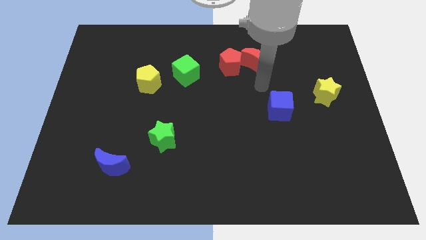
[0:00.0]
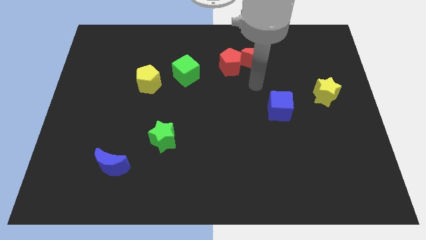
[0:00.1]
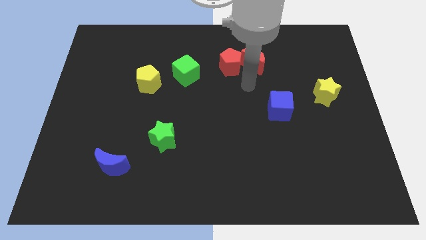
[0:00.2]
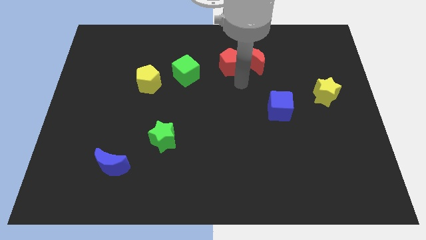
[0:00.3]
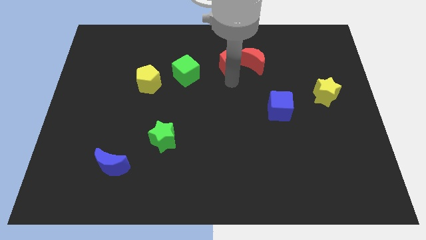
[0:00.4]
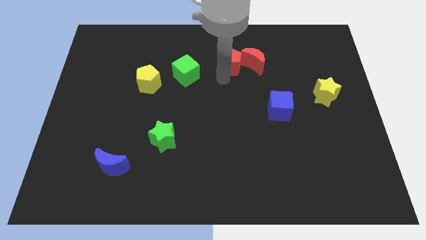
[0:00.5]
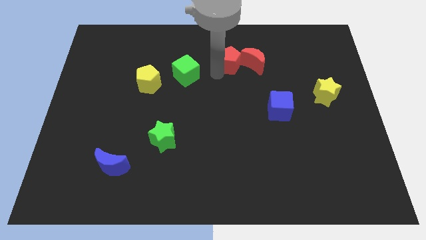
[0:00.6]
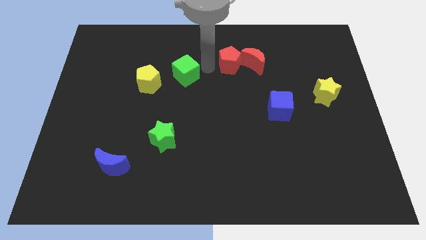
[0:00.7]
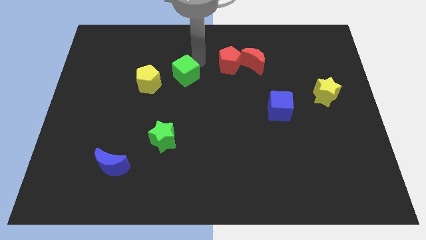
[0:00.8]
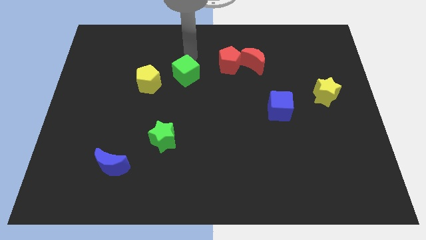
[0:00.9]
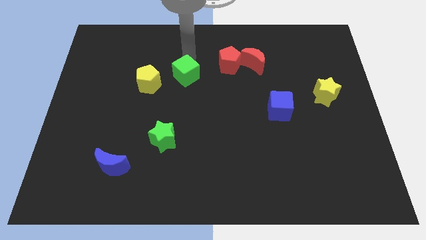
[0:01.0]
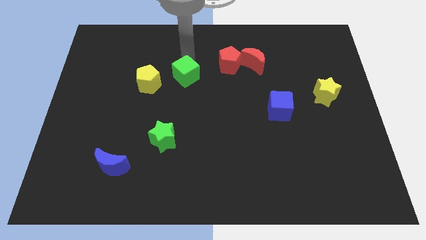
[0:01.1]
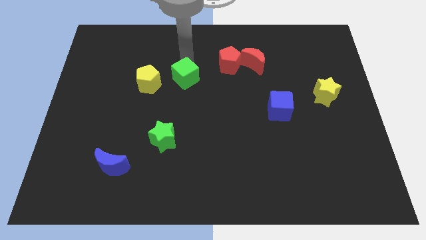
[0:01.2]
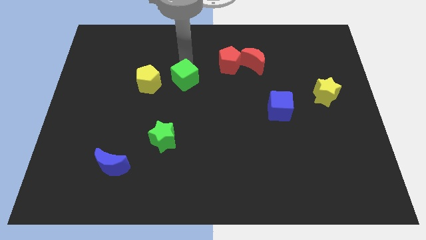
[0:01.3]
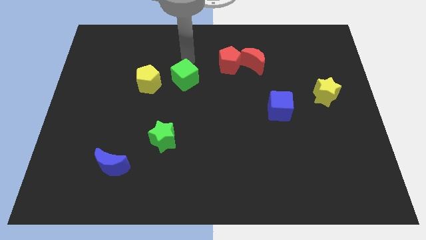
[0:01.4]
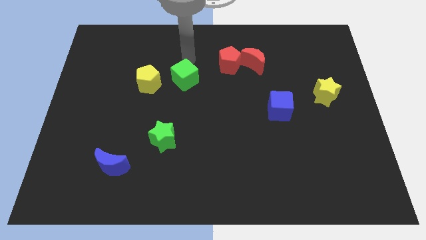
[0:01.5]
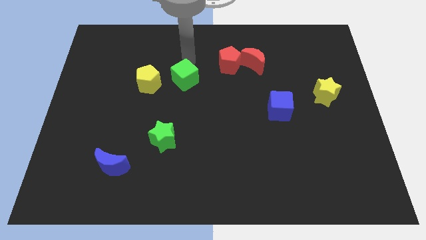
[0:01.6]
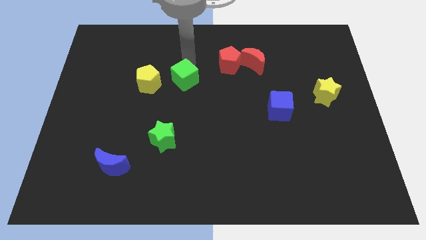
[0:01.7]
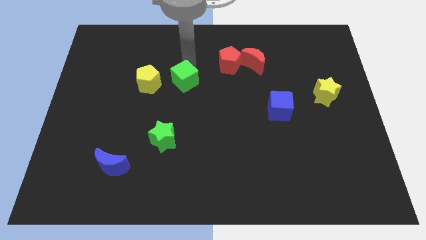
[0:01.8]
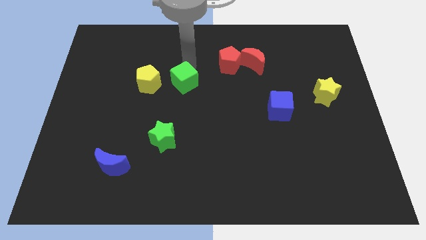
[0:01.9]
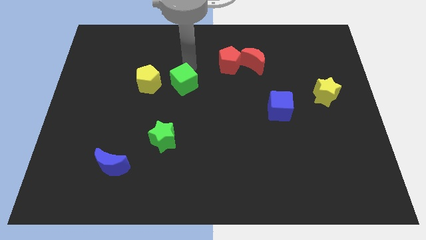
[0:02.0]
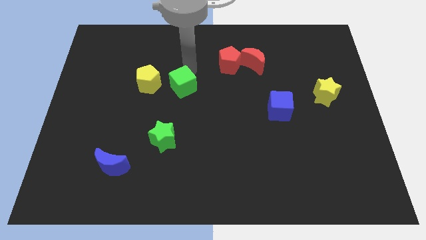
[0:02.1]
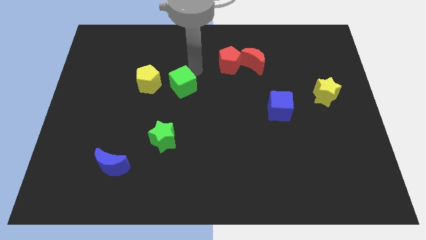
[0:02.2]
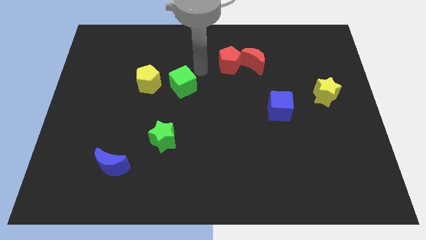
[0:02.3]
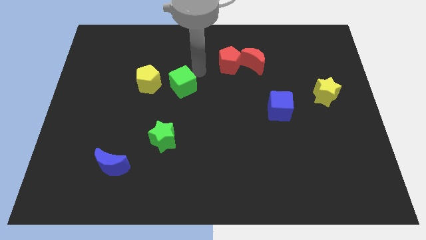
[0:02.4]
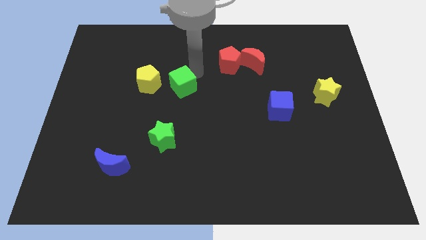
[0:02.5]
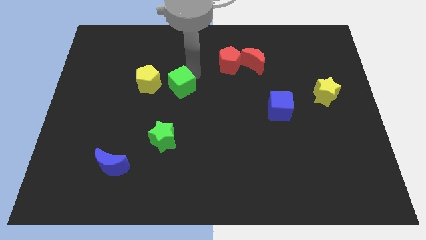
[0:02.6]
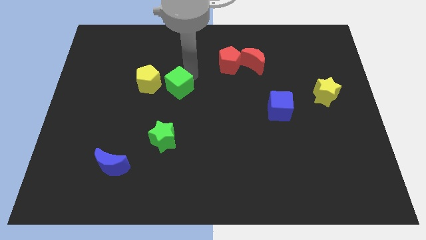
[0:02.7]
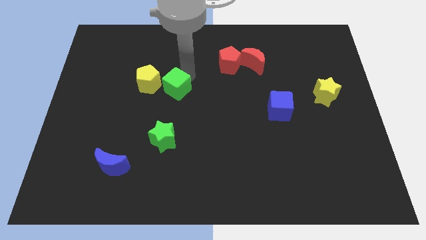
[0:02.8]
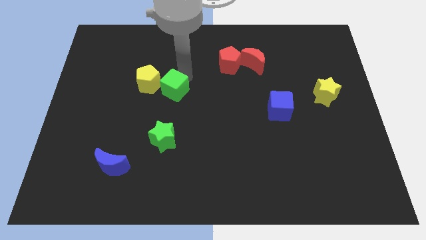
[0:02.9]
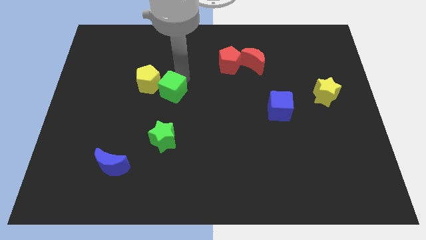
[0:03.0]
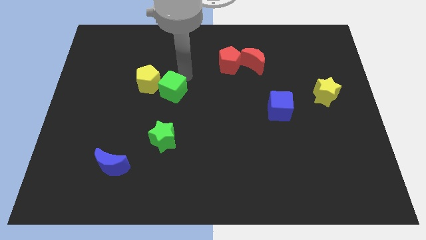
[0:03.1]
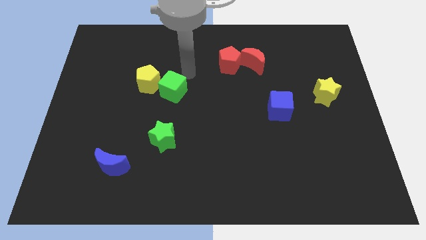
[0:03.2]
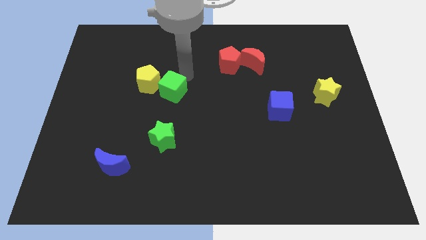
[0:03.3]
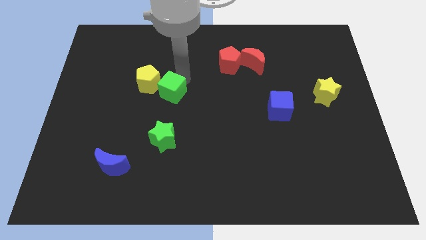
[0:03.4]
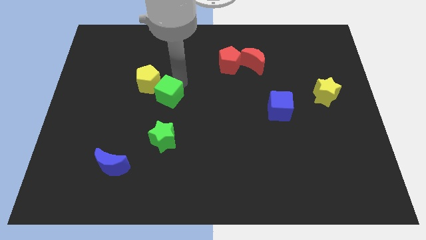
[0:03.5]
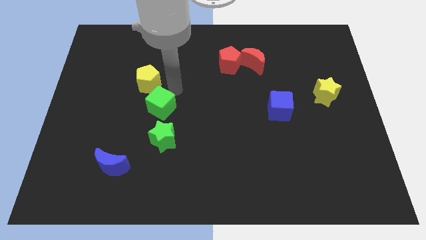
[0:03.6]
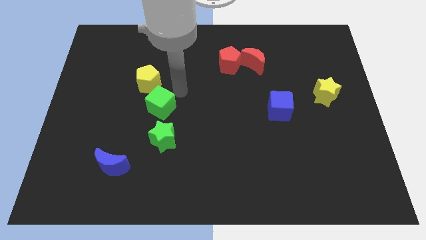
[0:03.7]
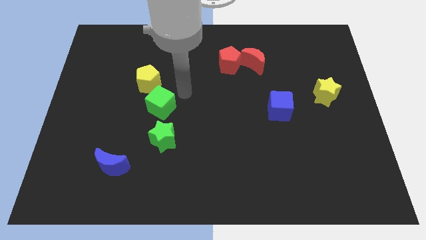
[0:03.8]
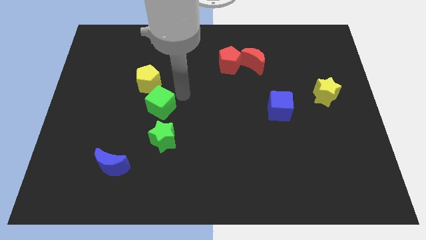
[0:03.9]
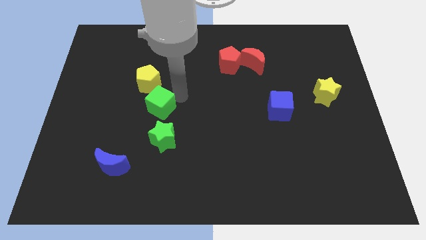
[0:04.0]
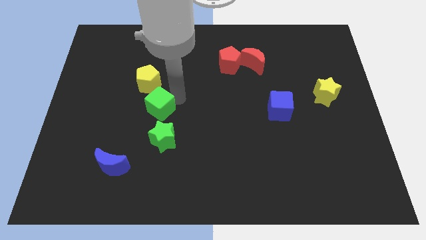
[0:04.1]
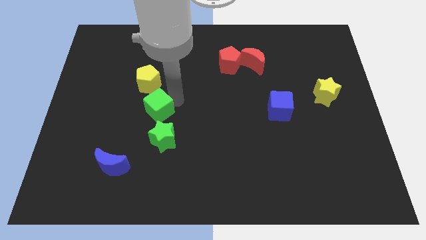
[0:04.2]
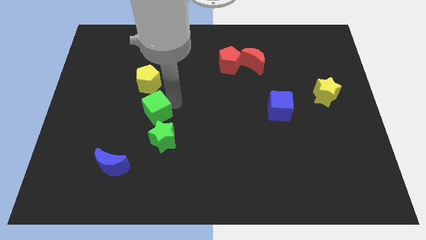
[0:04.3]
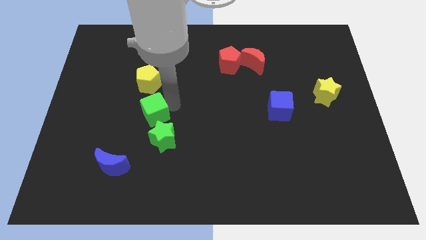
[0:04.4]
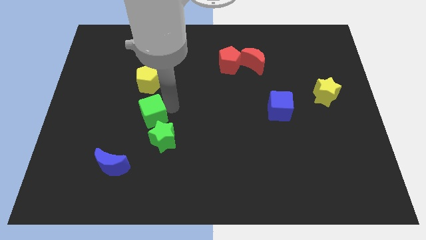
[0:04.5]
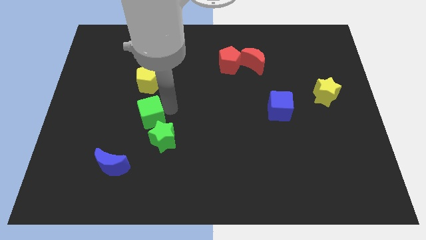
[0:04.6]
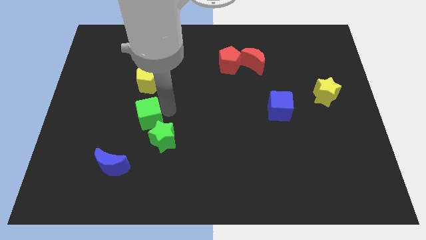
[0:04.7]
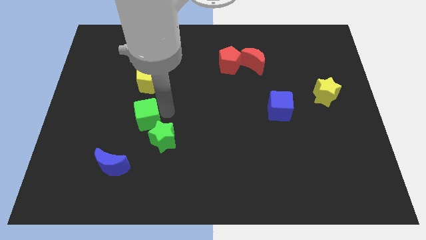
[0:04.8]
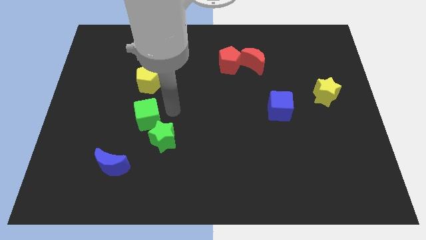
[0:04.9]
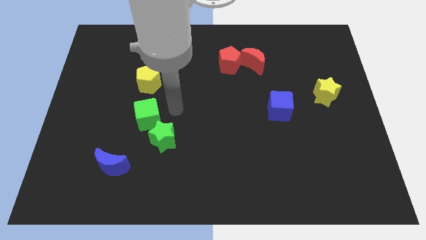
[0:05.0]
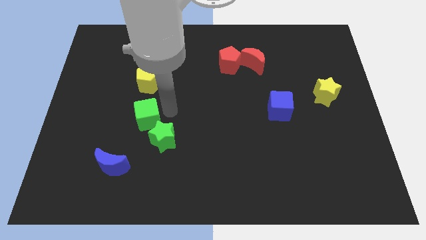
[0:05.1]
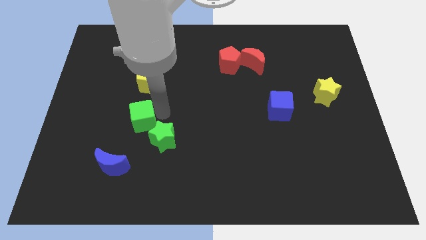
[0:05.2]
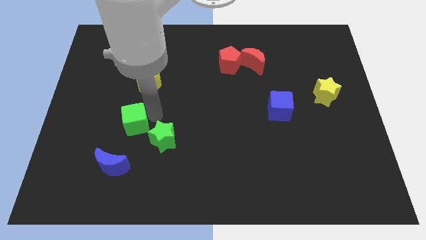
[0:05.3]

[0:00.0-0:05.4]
push the green cube above the blue moon

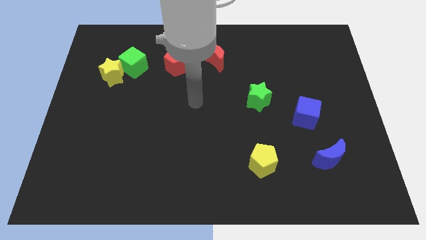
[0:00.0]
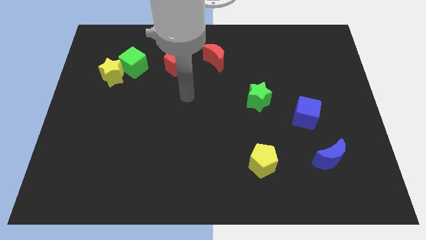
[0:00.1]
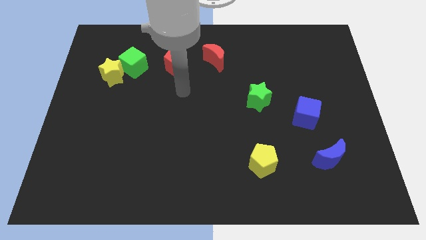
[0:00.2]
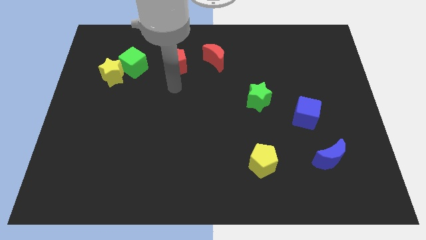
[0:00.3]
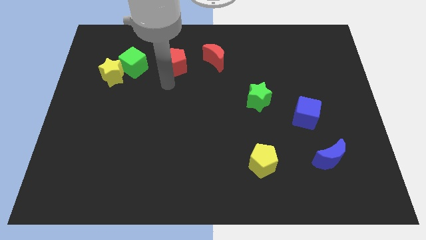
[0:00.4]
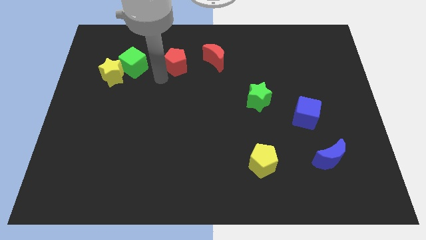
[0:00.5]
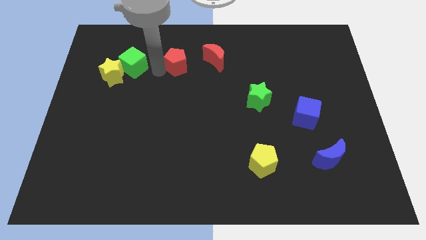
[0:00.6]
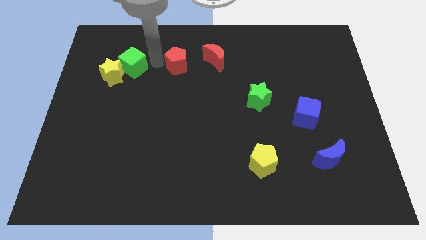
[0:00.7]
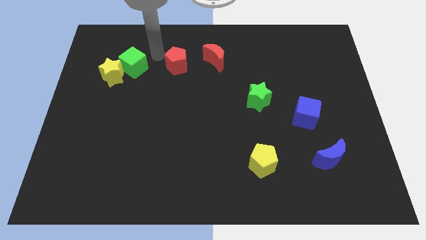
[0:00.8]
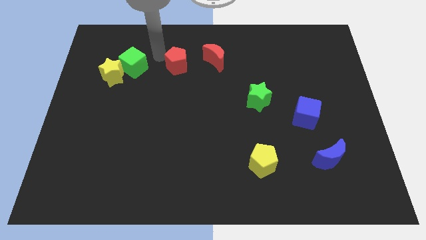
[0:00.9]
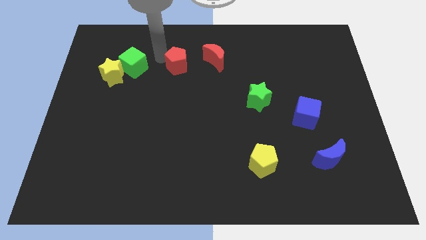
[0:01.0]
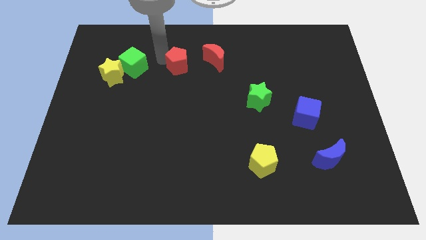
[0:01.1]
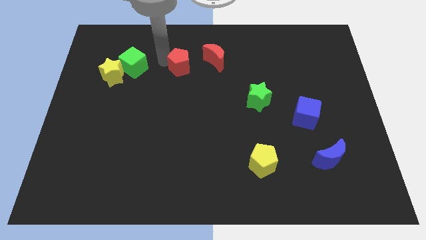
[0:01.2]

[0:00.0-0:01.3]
slide the red pentagon to the bottom left of the red moon

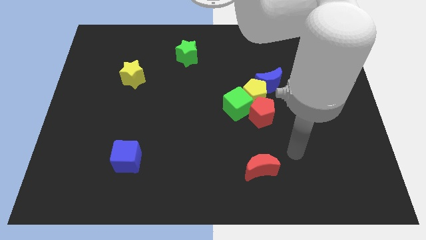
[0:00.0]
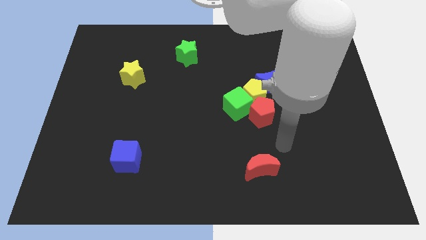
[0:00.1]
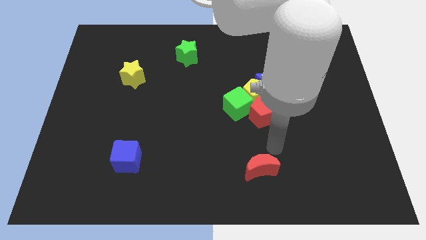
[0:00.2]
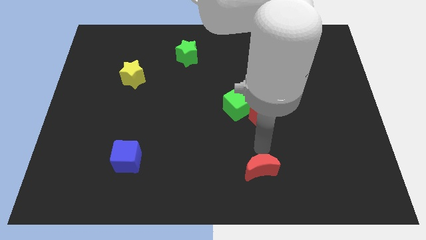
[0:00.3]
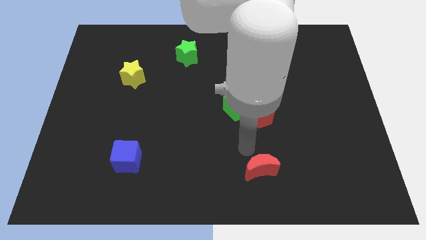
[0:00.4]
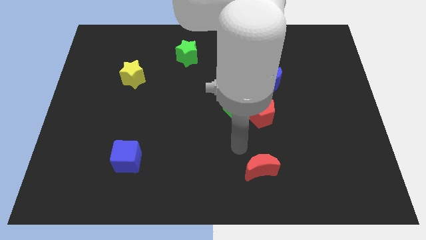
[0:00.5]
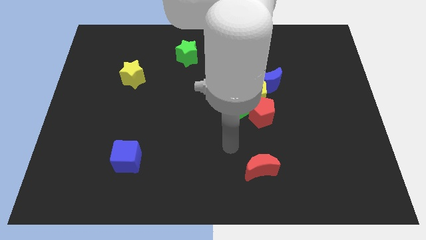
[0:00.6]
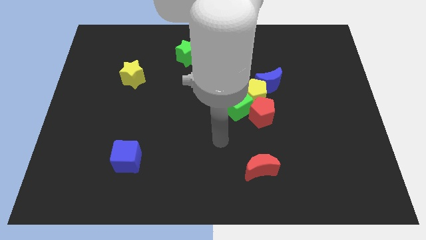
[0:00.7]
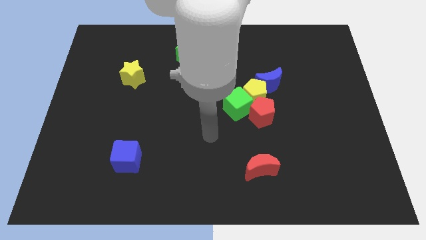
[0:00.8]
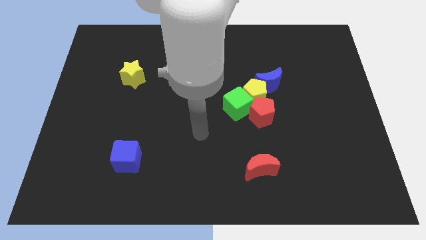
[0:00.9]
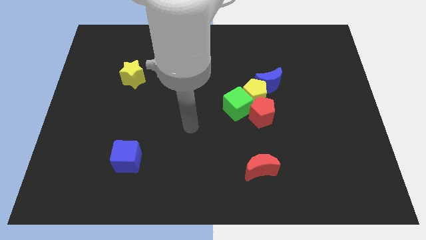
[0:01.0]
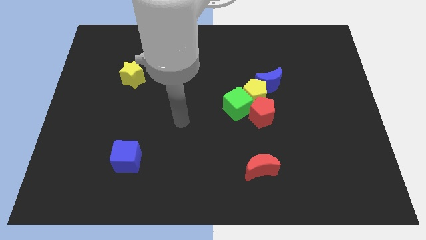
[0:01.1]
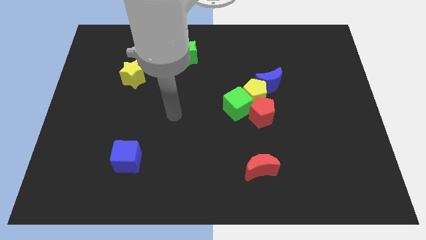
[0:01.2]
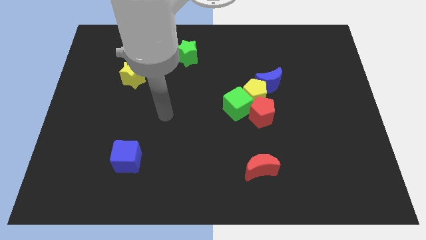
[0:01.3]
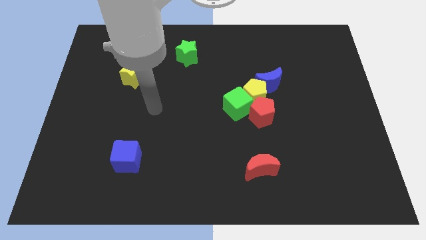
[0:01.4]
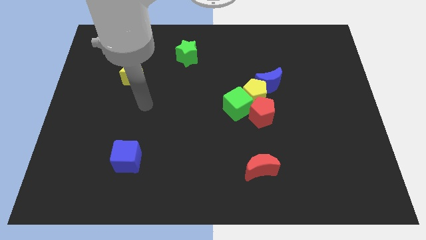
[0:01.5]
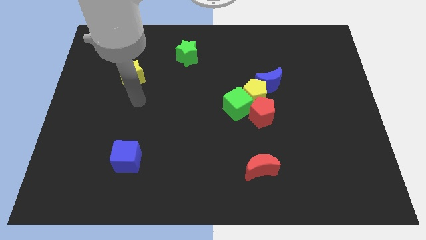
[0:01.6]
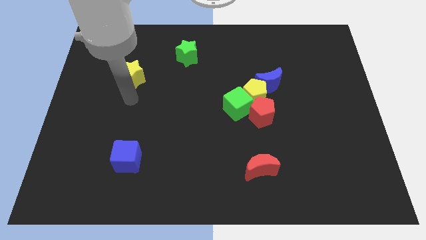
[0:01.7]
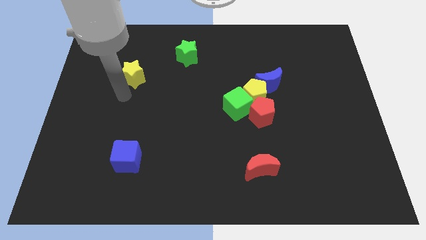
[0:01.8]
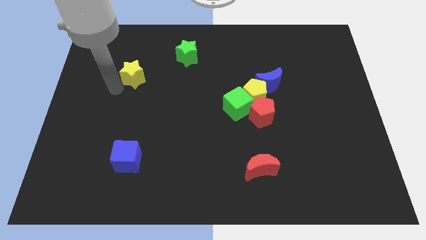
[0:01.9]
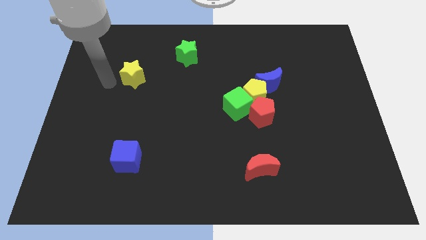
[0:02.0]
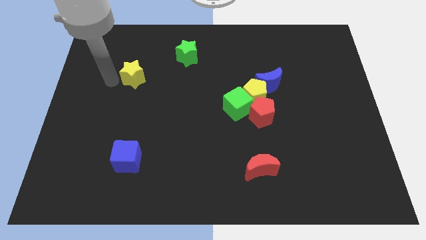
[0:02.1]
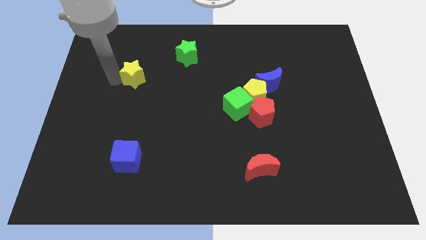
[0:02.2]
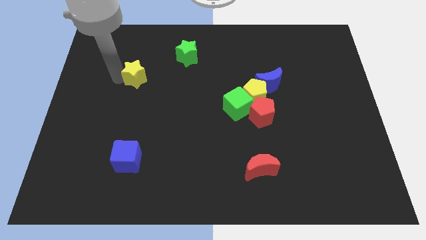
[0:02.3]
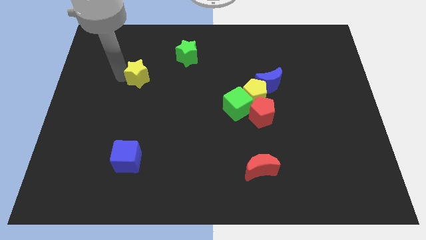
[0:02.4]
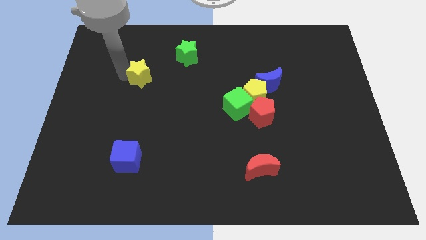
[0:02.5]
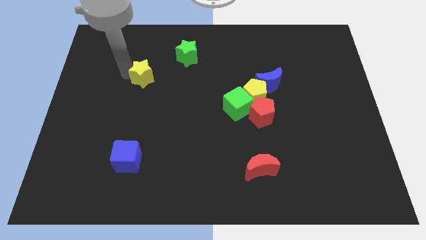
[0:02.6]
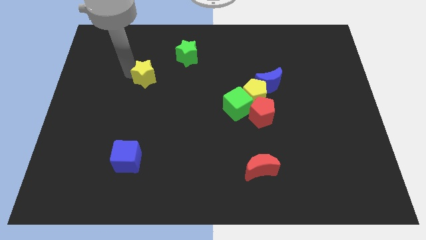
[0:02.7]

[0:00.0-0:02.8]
put the yellow star to the bottom left side of the green star
